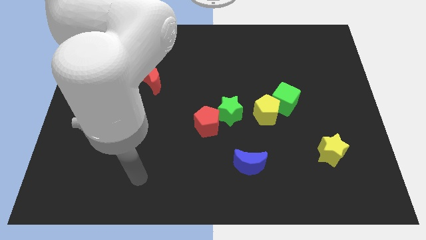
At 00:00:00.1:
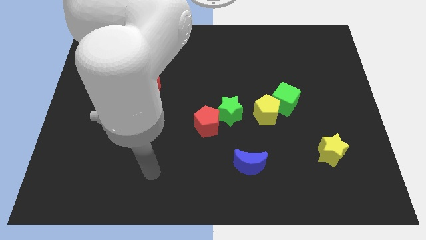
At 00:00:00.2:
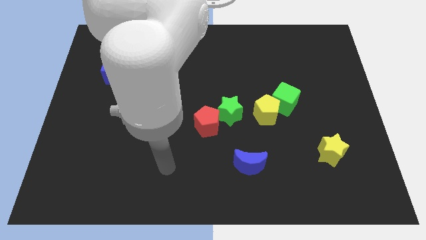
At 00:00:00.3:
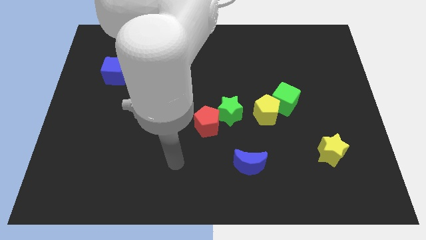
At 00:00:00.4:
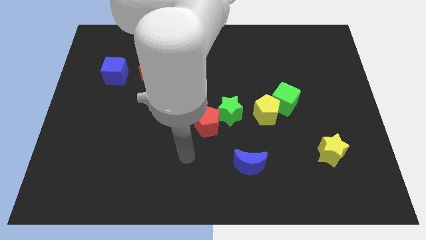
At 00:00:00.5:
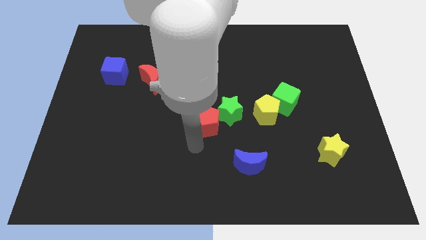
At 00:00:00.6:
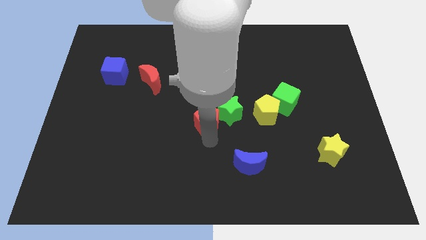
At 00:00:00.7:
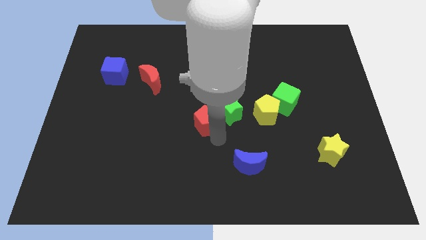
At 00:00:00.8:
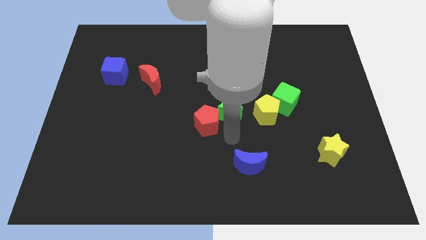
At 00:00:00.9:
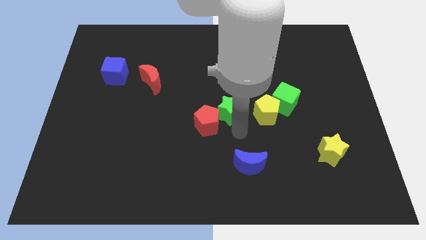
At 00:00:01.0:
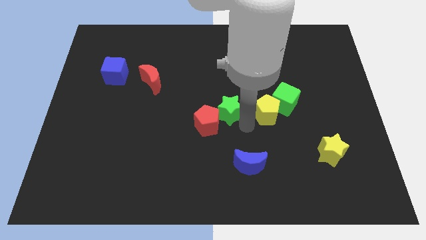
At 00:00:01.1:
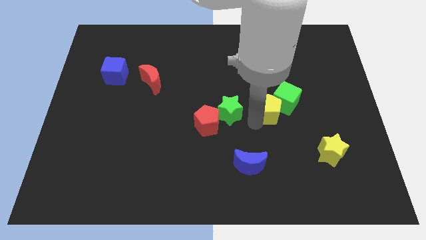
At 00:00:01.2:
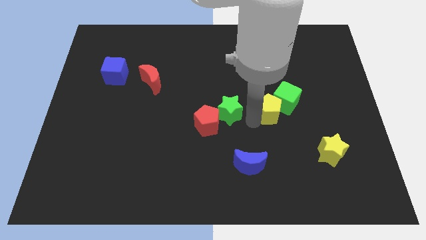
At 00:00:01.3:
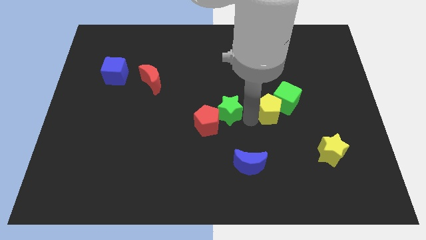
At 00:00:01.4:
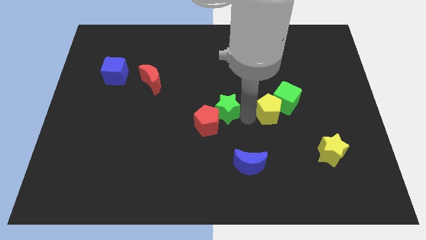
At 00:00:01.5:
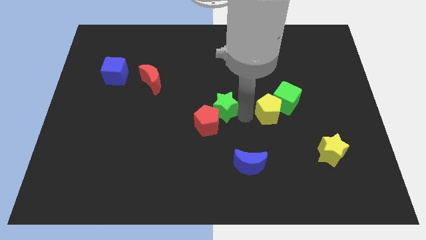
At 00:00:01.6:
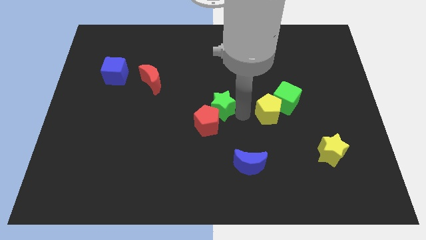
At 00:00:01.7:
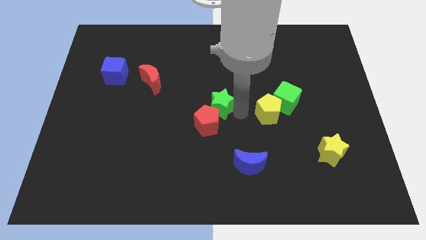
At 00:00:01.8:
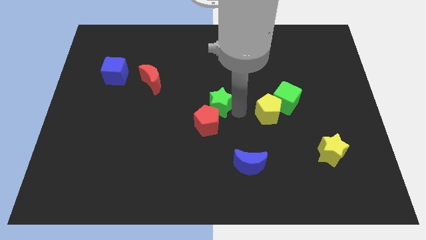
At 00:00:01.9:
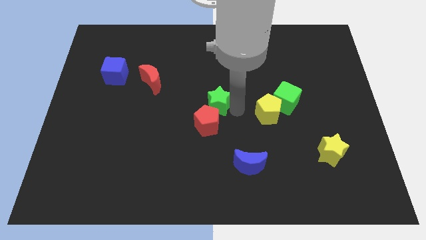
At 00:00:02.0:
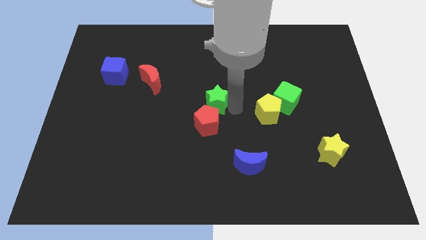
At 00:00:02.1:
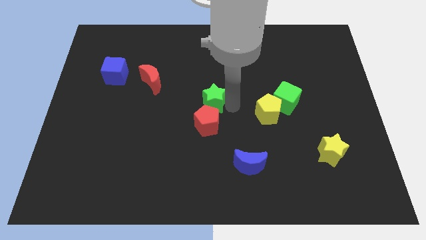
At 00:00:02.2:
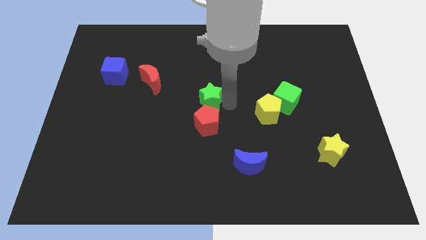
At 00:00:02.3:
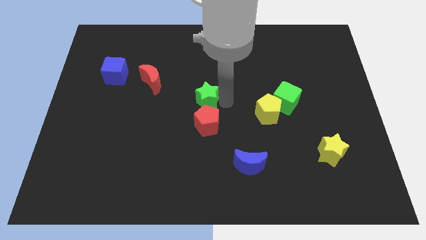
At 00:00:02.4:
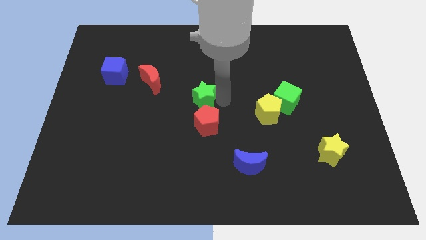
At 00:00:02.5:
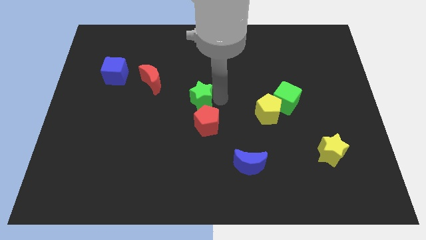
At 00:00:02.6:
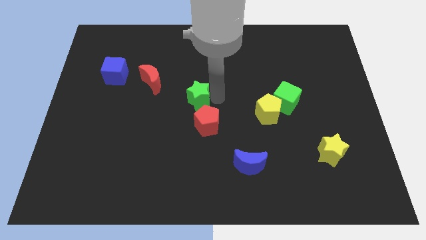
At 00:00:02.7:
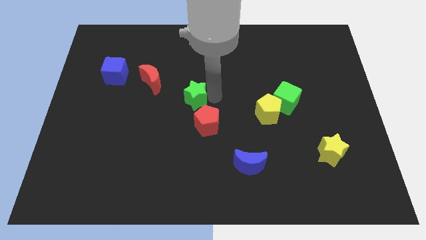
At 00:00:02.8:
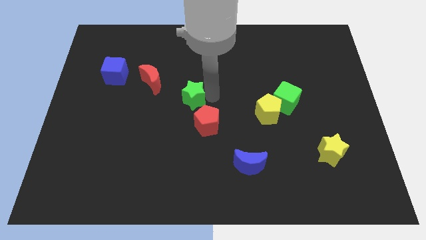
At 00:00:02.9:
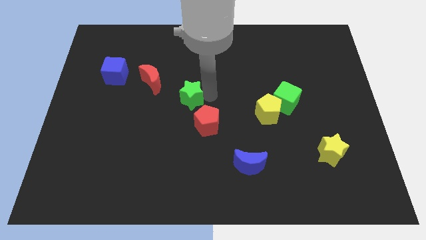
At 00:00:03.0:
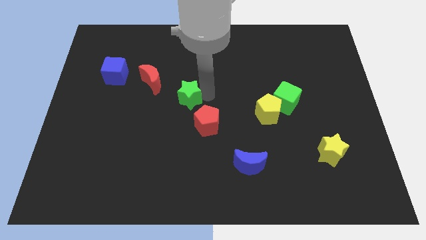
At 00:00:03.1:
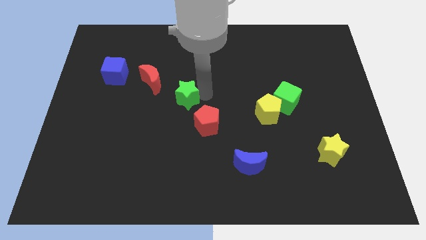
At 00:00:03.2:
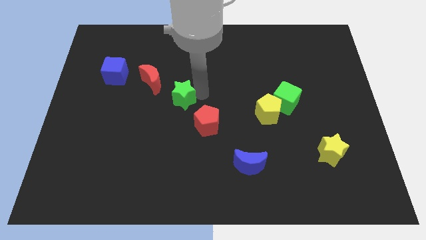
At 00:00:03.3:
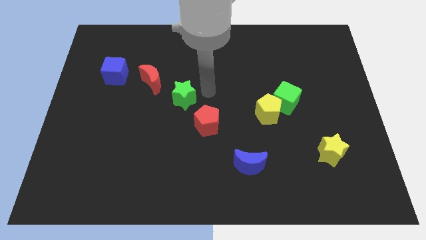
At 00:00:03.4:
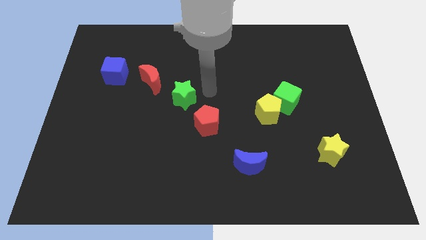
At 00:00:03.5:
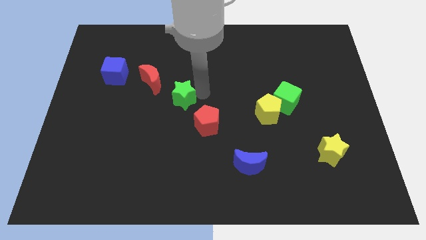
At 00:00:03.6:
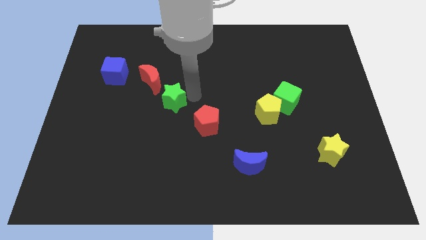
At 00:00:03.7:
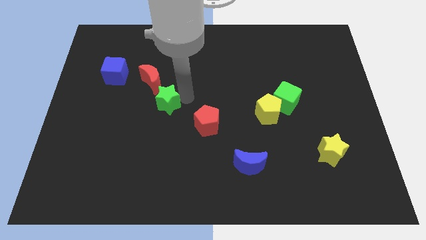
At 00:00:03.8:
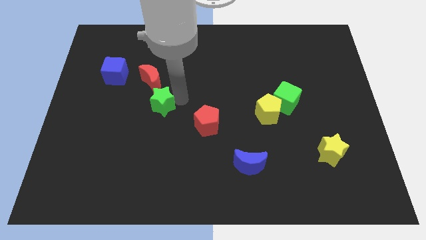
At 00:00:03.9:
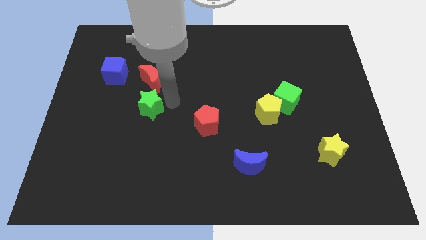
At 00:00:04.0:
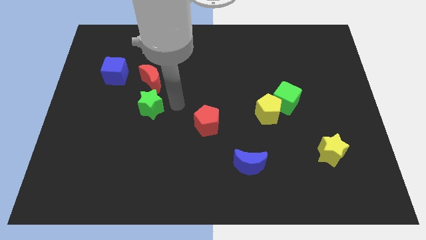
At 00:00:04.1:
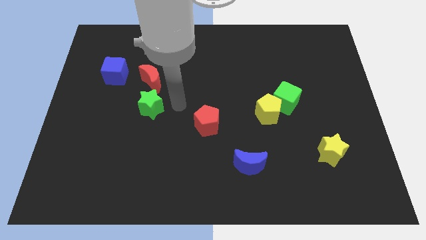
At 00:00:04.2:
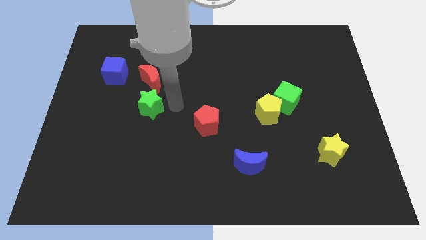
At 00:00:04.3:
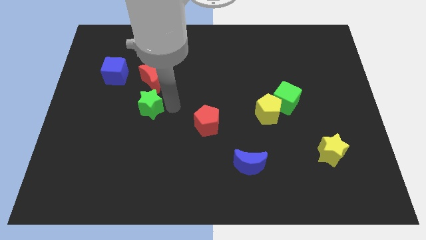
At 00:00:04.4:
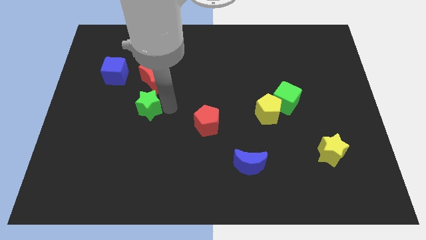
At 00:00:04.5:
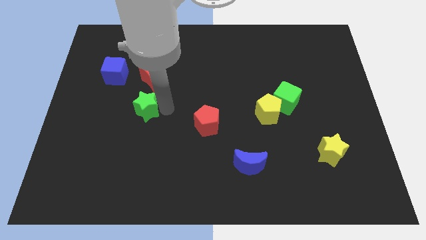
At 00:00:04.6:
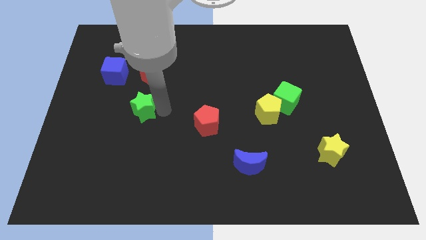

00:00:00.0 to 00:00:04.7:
move the green star to the left

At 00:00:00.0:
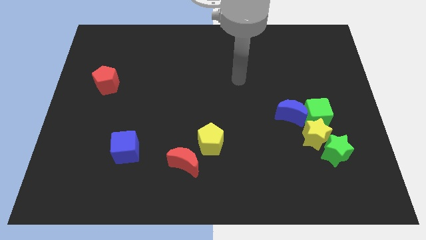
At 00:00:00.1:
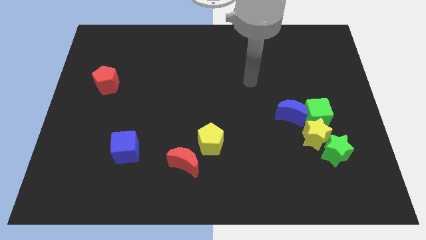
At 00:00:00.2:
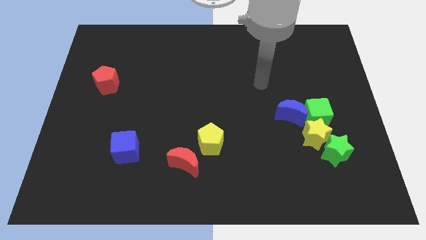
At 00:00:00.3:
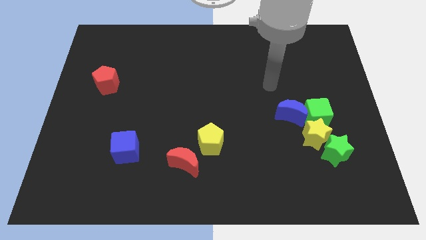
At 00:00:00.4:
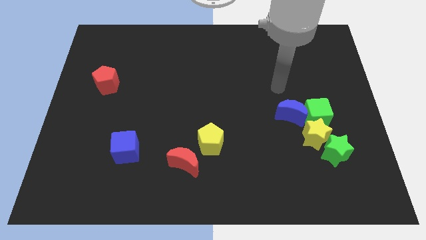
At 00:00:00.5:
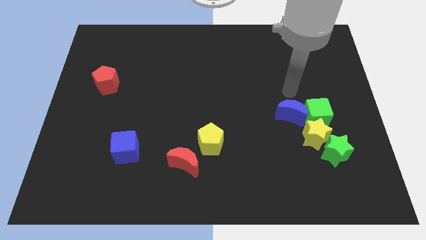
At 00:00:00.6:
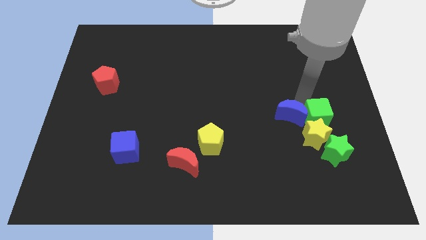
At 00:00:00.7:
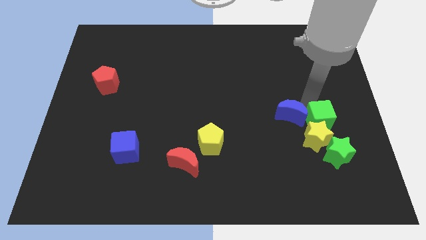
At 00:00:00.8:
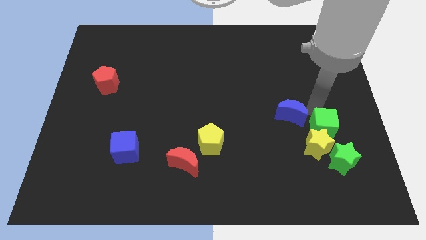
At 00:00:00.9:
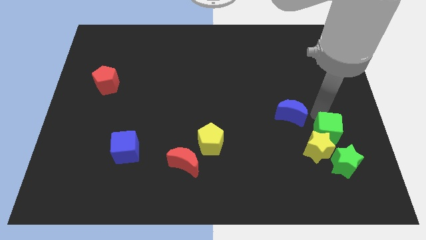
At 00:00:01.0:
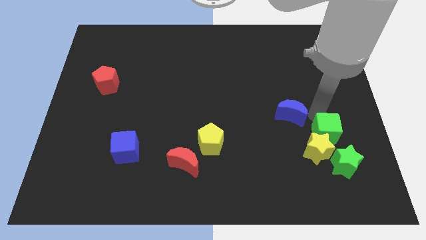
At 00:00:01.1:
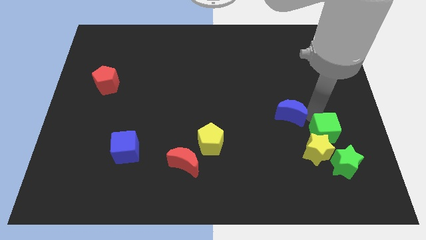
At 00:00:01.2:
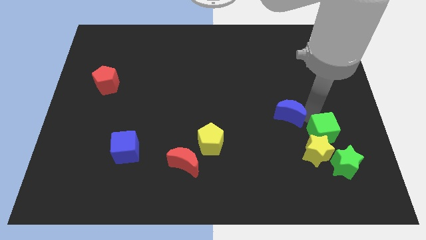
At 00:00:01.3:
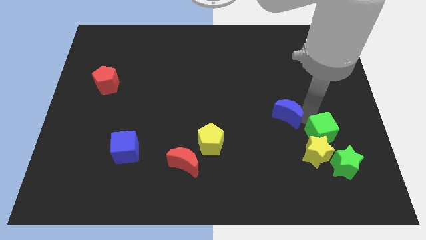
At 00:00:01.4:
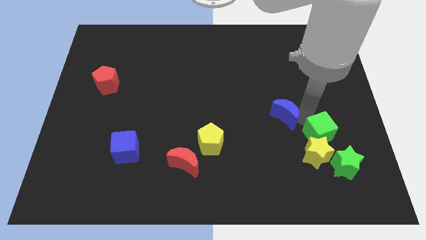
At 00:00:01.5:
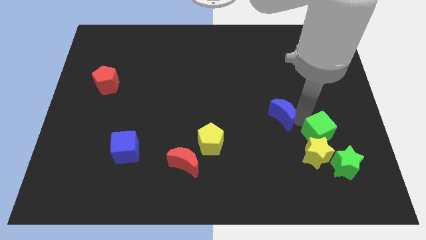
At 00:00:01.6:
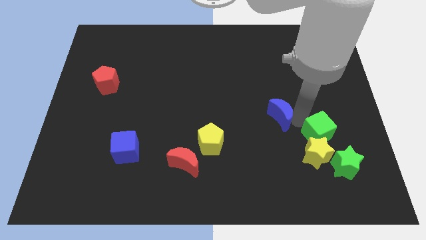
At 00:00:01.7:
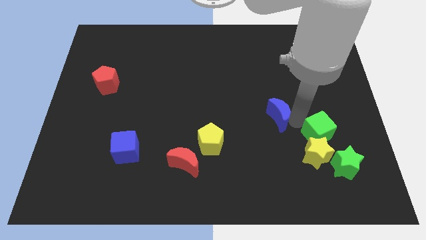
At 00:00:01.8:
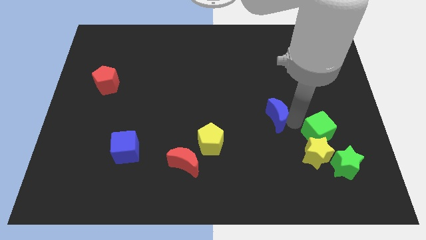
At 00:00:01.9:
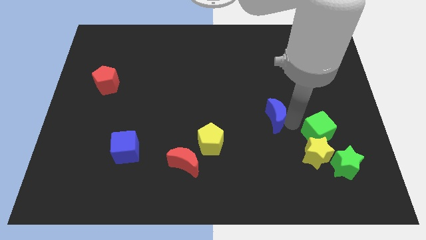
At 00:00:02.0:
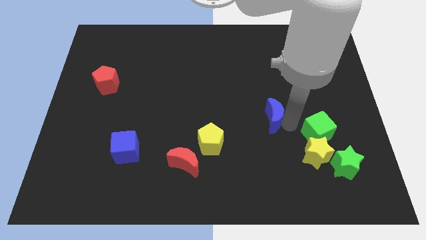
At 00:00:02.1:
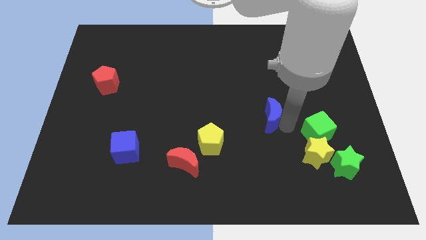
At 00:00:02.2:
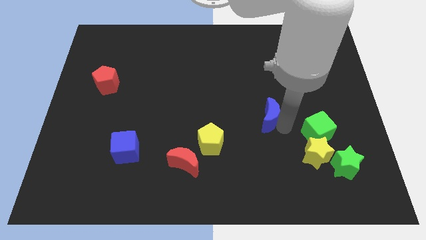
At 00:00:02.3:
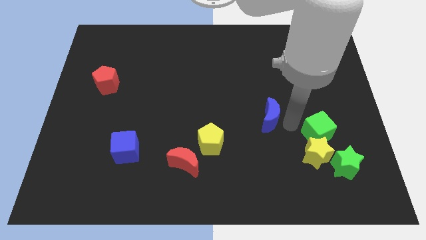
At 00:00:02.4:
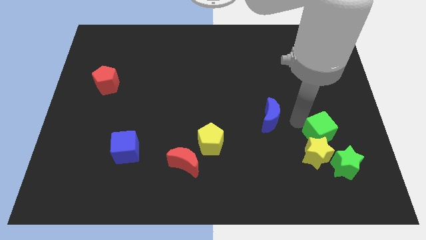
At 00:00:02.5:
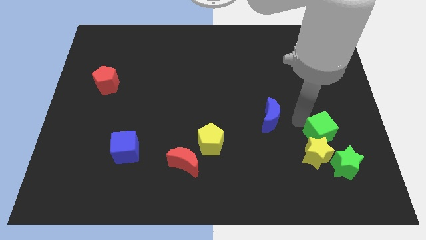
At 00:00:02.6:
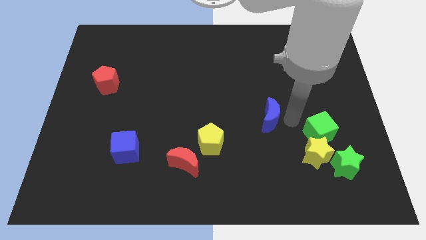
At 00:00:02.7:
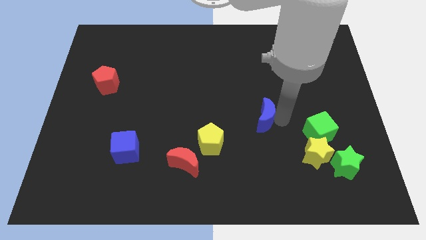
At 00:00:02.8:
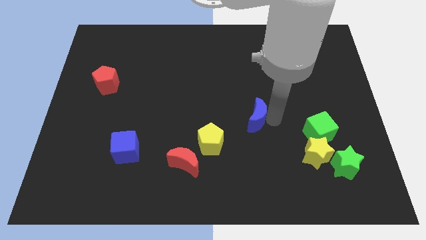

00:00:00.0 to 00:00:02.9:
push the blue moon a little to the left

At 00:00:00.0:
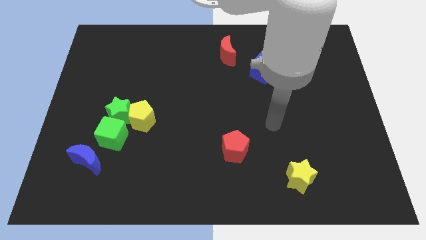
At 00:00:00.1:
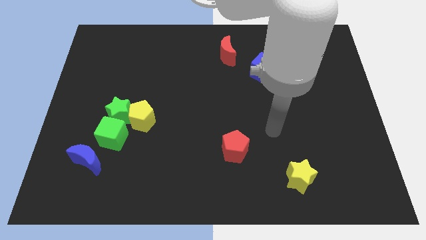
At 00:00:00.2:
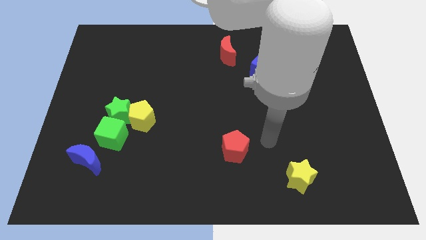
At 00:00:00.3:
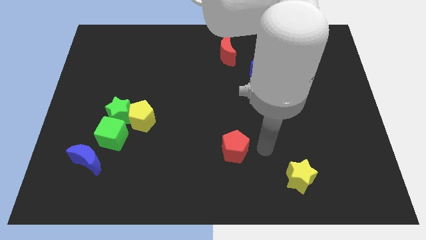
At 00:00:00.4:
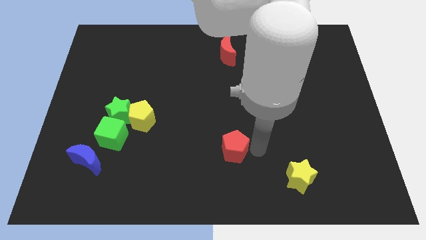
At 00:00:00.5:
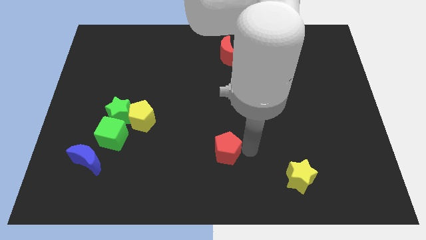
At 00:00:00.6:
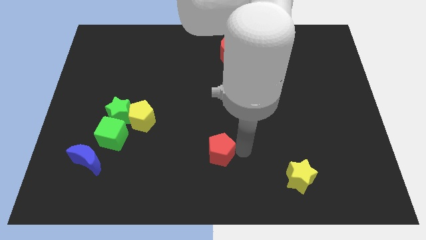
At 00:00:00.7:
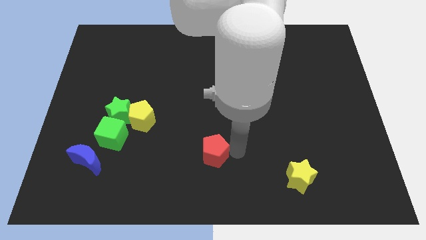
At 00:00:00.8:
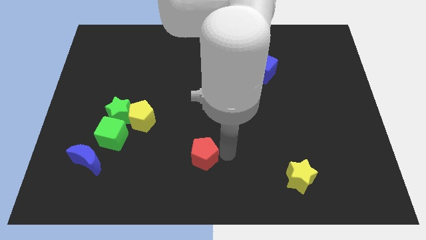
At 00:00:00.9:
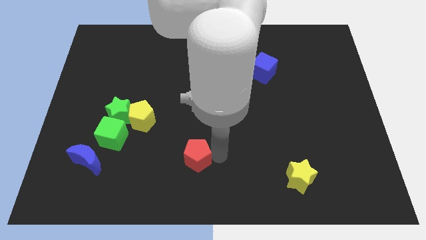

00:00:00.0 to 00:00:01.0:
push the red pentagon somewhat to the left
